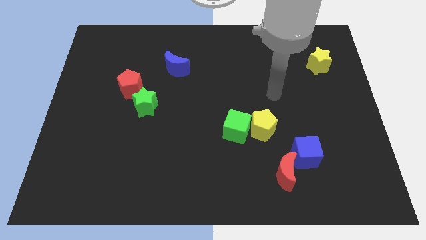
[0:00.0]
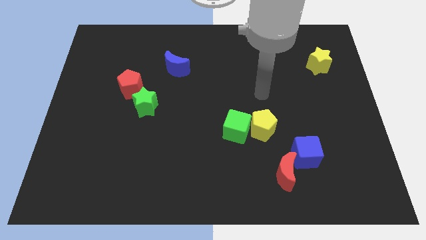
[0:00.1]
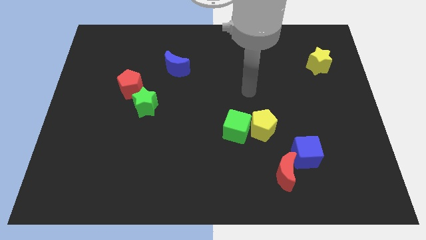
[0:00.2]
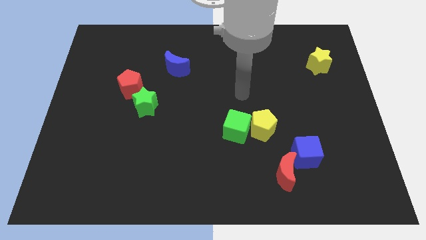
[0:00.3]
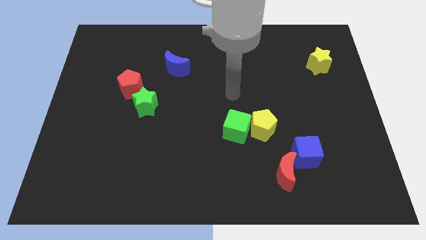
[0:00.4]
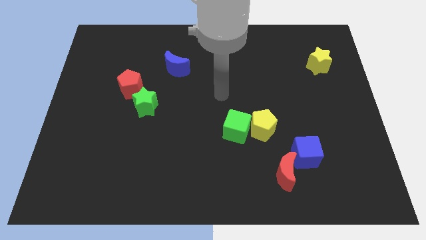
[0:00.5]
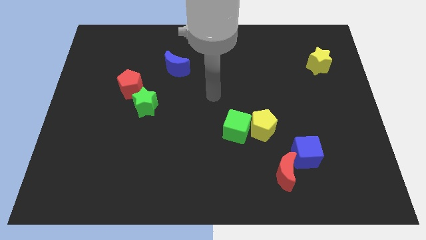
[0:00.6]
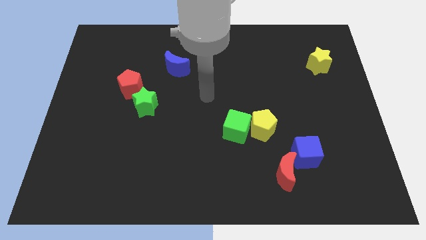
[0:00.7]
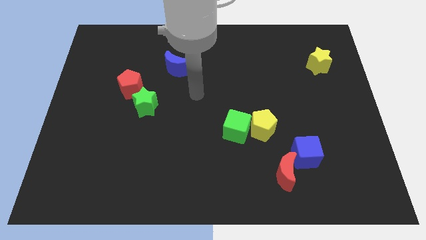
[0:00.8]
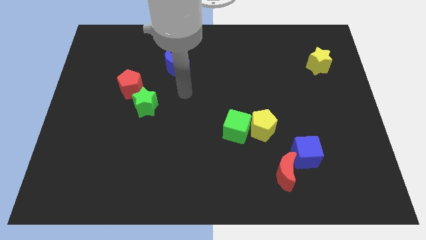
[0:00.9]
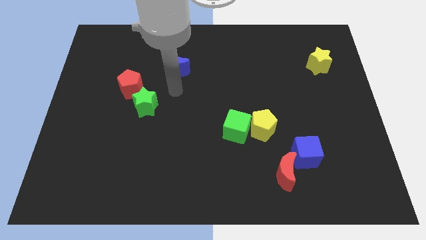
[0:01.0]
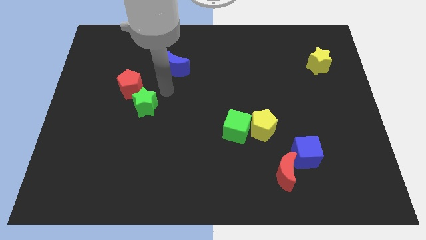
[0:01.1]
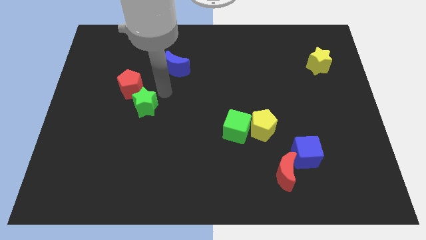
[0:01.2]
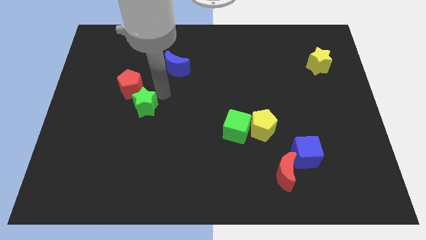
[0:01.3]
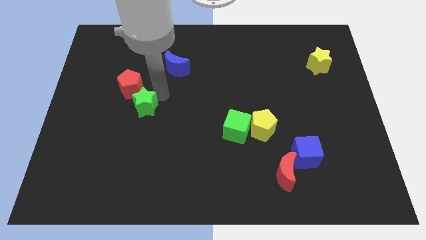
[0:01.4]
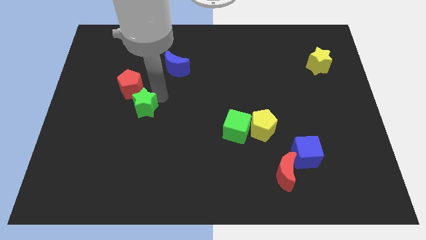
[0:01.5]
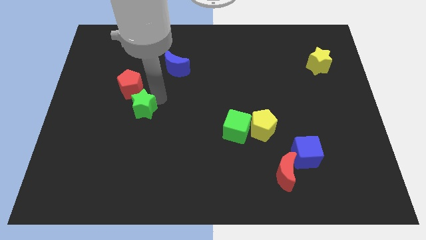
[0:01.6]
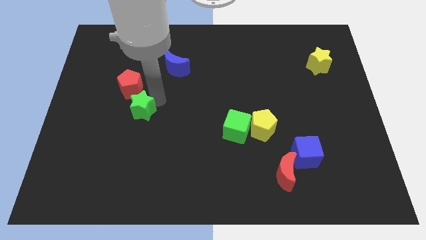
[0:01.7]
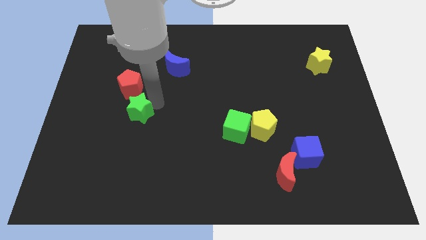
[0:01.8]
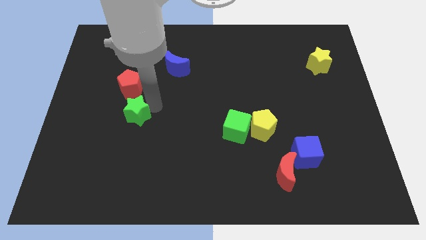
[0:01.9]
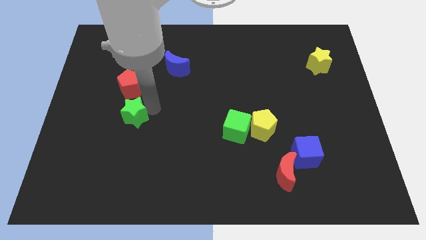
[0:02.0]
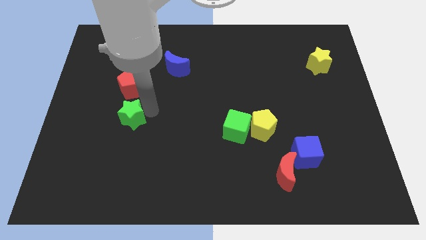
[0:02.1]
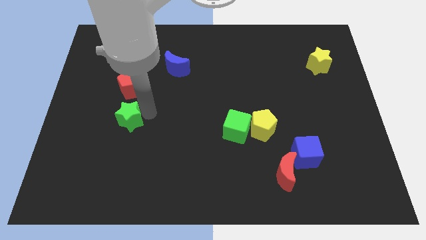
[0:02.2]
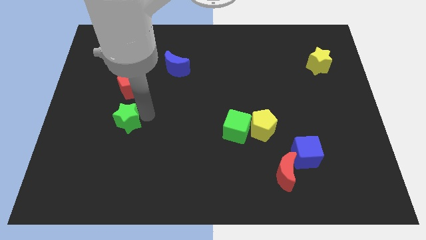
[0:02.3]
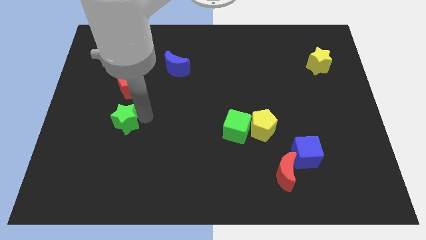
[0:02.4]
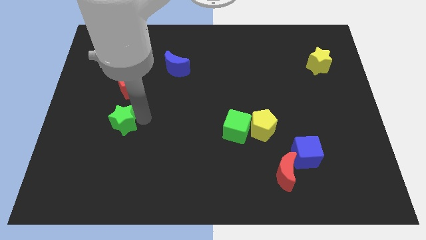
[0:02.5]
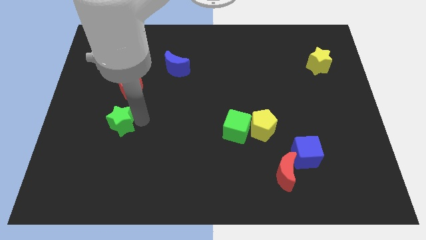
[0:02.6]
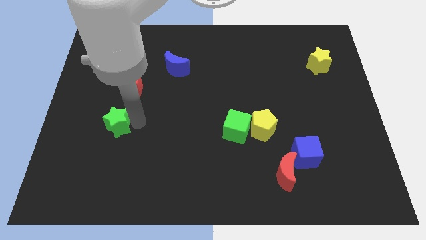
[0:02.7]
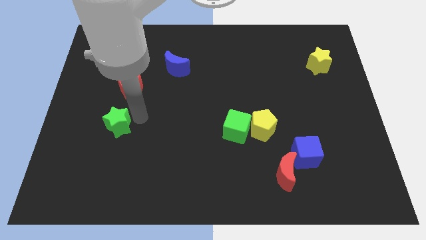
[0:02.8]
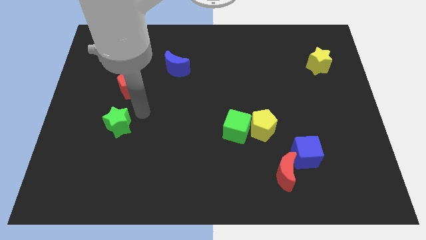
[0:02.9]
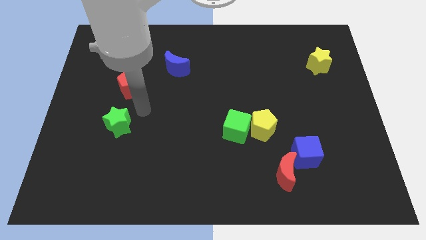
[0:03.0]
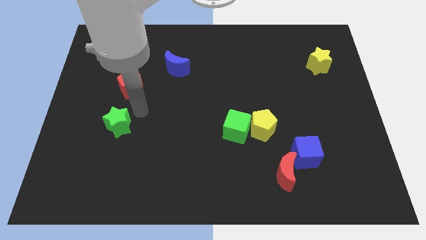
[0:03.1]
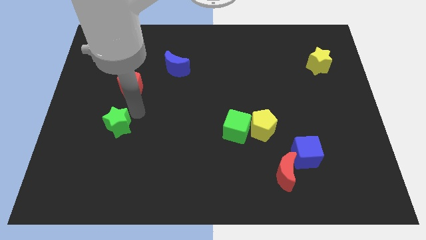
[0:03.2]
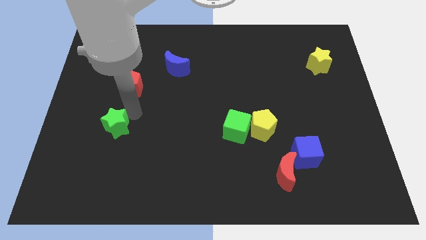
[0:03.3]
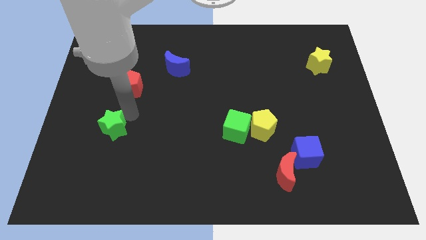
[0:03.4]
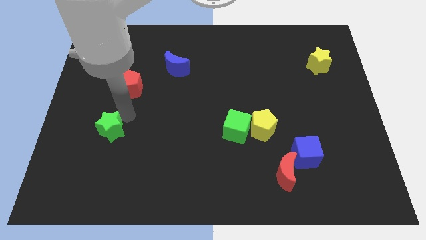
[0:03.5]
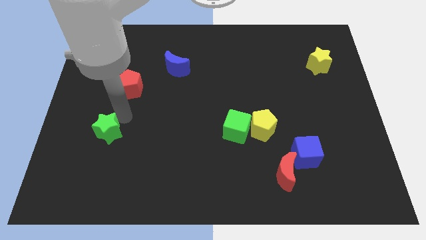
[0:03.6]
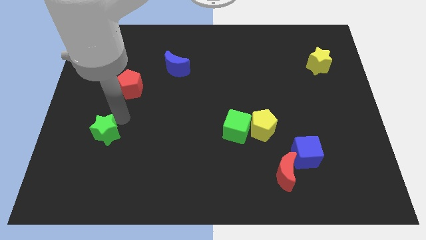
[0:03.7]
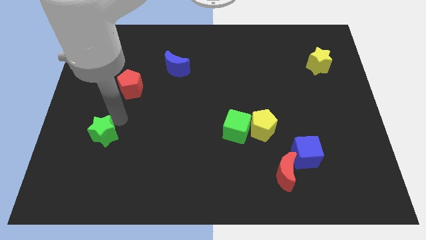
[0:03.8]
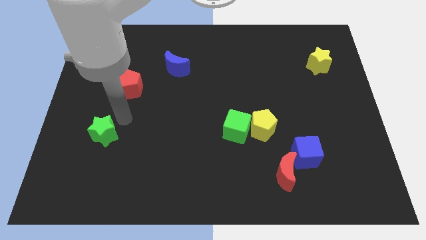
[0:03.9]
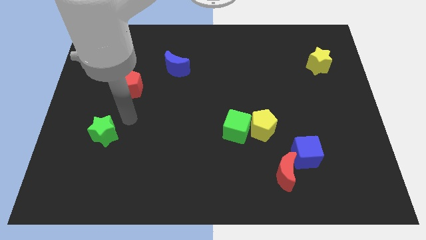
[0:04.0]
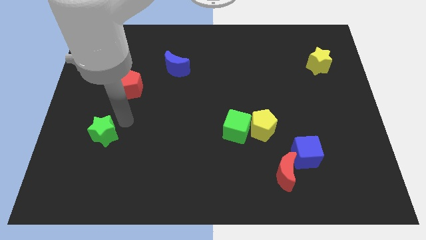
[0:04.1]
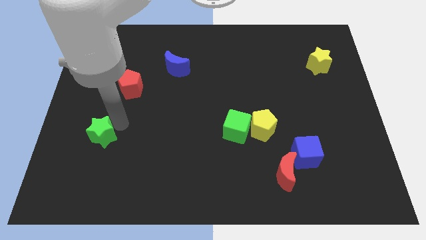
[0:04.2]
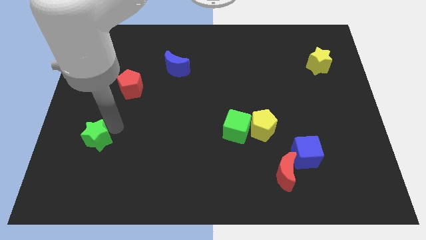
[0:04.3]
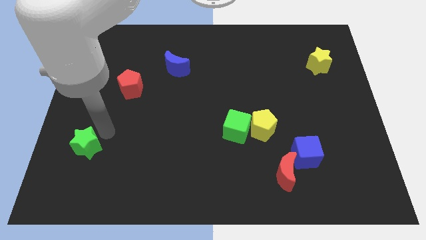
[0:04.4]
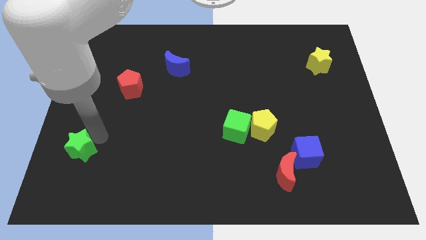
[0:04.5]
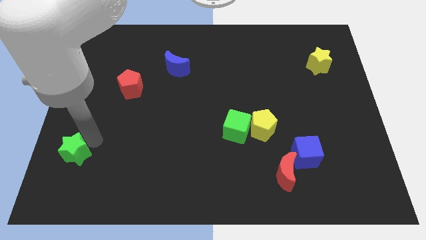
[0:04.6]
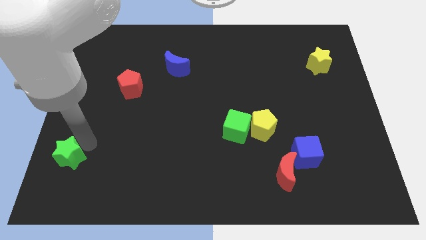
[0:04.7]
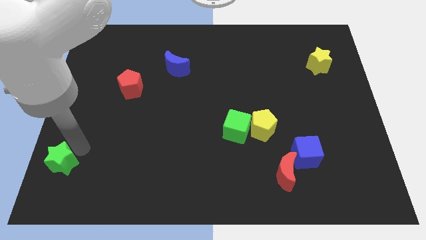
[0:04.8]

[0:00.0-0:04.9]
slide the green star to the bottom left

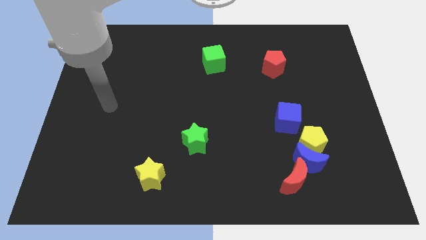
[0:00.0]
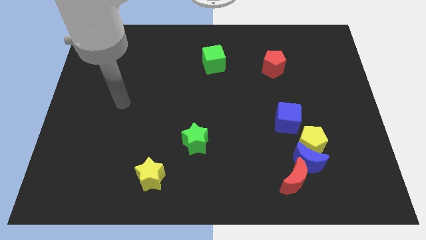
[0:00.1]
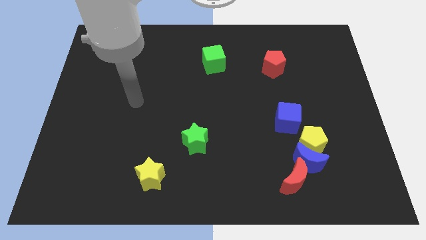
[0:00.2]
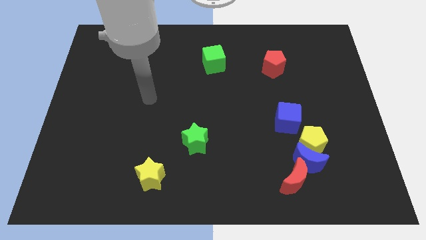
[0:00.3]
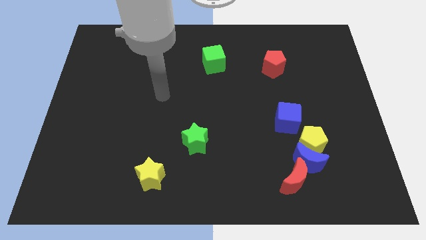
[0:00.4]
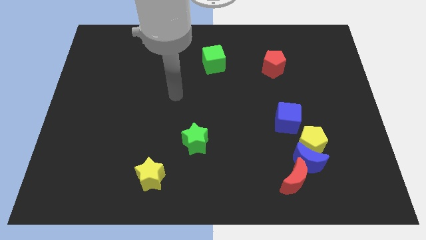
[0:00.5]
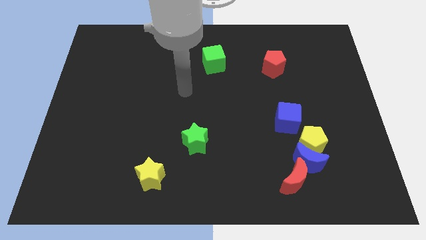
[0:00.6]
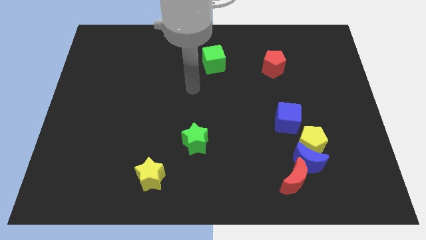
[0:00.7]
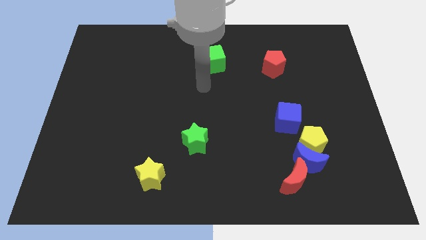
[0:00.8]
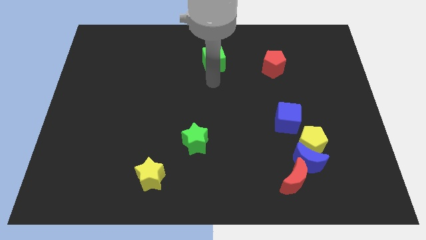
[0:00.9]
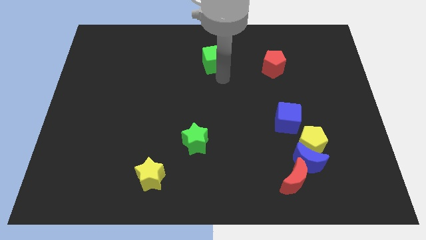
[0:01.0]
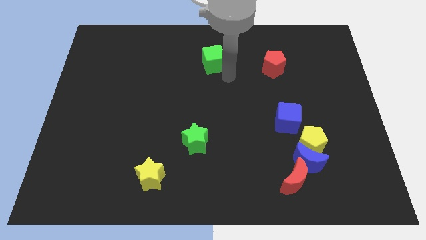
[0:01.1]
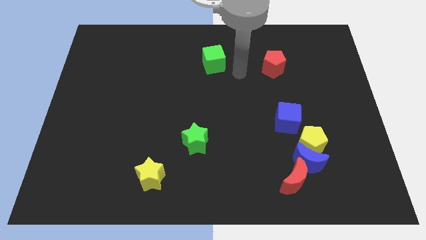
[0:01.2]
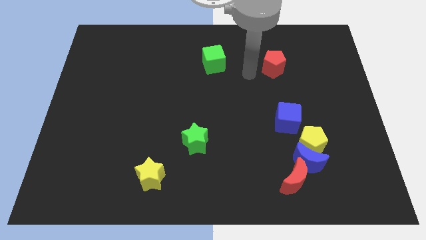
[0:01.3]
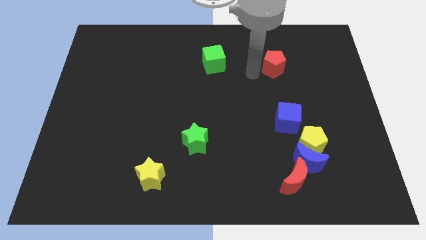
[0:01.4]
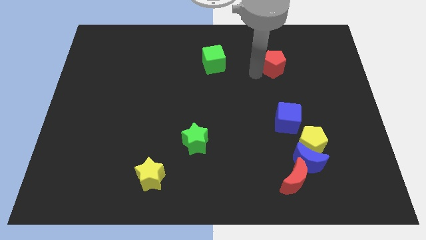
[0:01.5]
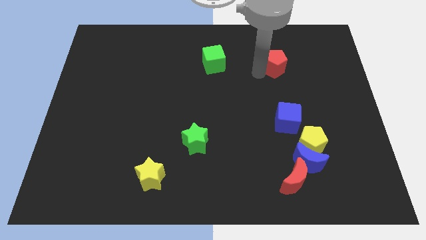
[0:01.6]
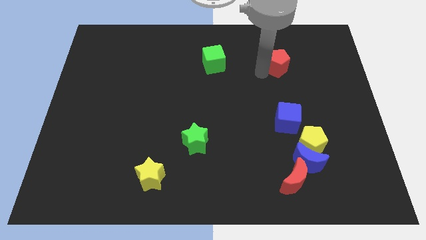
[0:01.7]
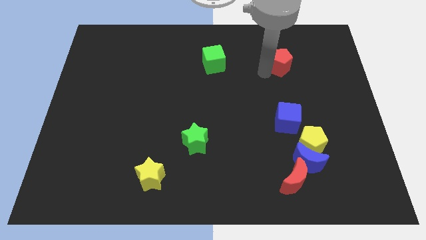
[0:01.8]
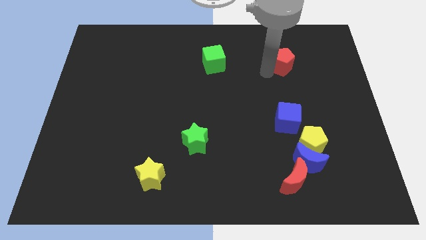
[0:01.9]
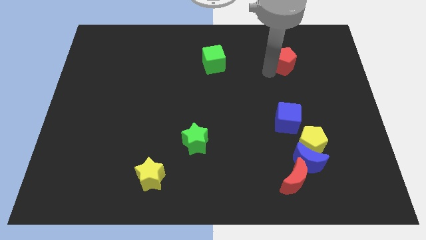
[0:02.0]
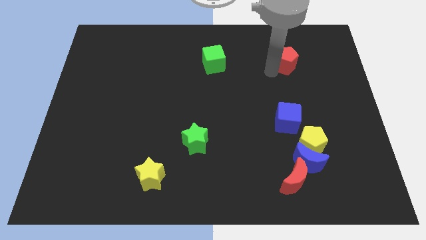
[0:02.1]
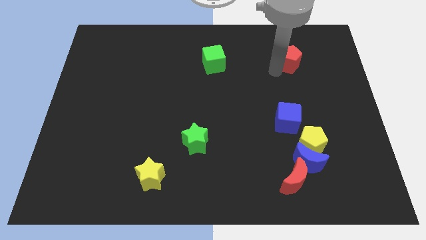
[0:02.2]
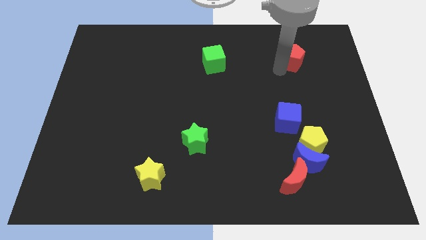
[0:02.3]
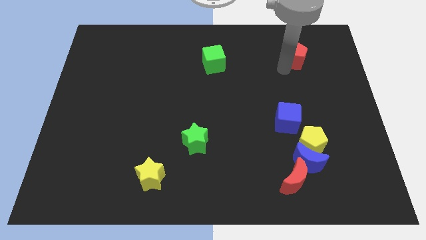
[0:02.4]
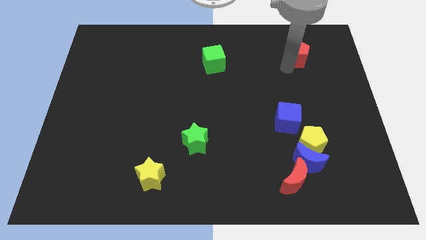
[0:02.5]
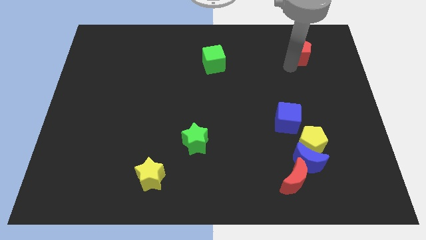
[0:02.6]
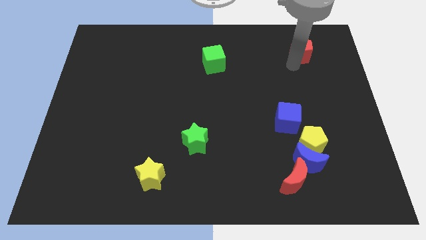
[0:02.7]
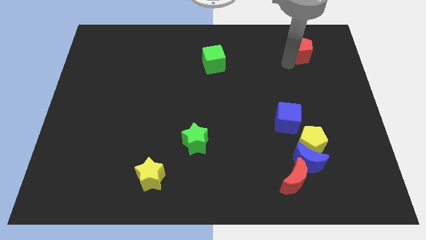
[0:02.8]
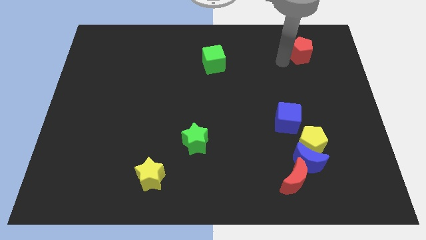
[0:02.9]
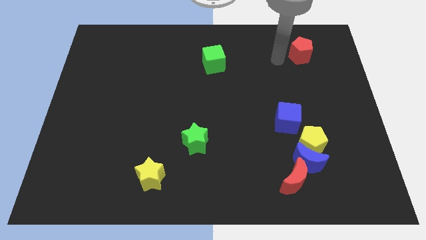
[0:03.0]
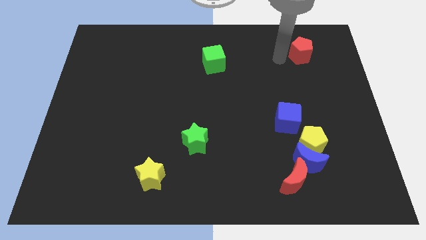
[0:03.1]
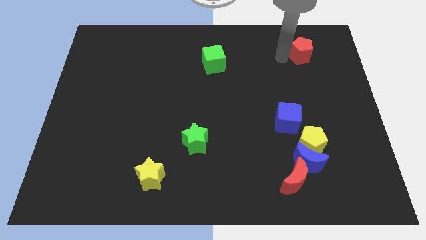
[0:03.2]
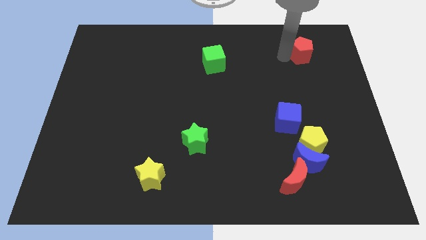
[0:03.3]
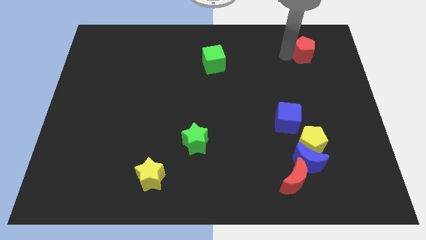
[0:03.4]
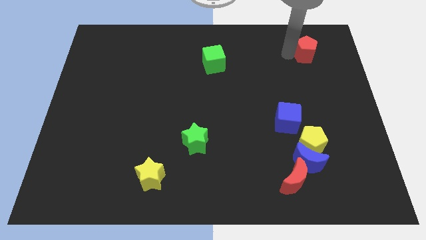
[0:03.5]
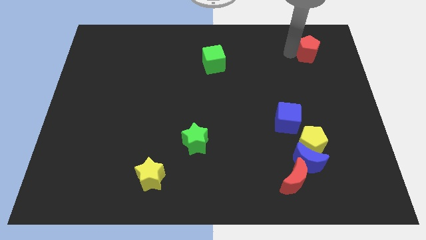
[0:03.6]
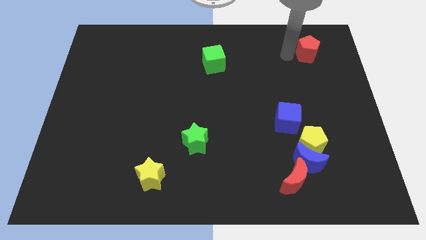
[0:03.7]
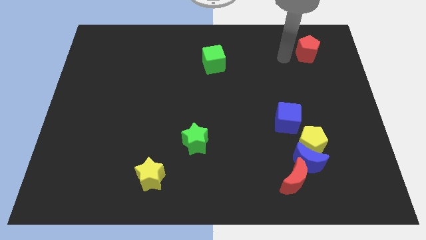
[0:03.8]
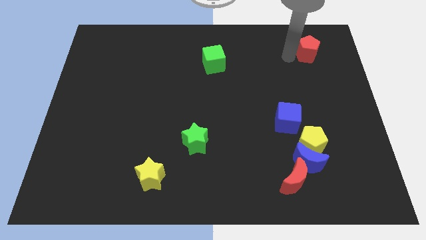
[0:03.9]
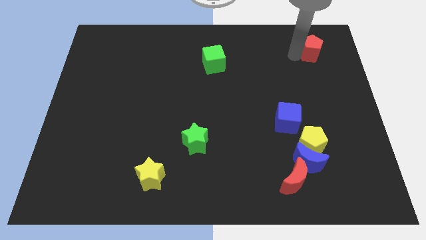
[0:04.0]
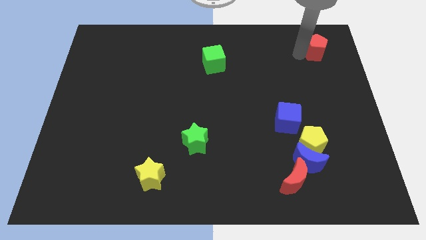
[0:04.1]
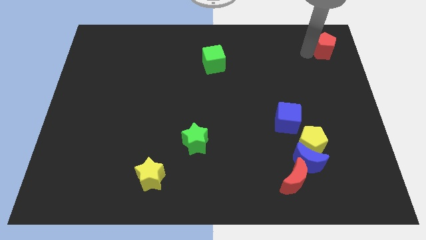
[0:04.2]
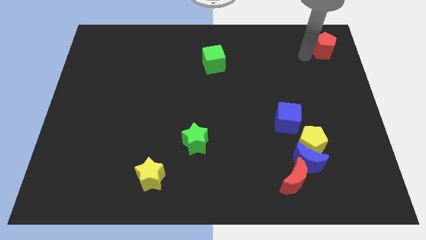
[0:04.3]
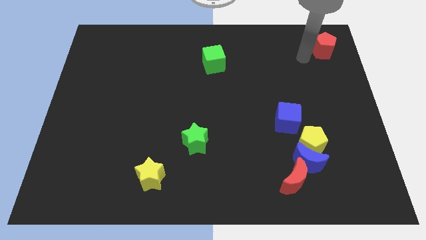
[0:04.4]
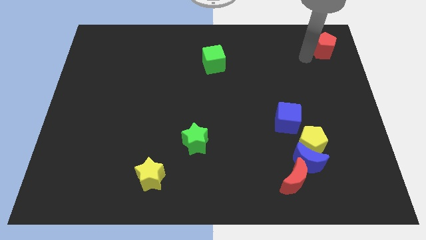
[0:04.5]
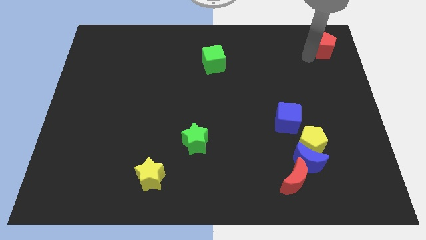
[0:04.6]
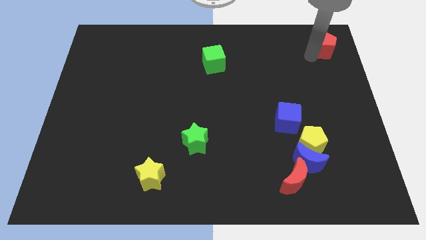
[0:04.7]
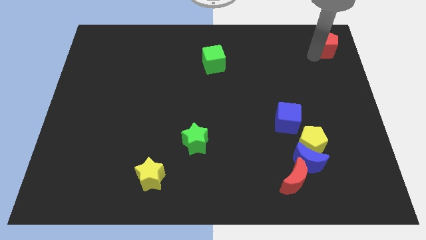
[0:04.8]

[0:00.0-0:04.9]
move the red pentagon to the top right of the board
